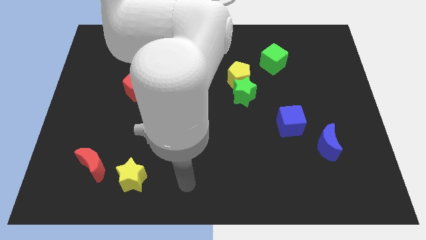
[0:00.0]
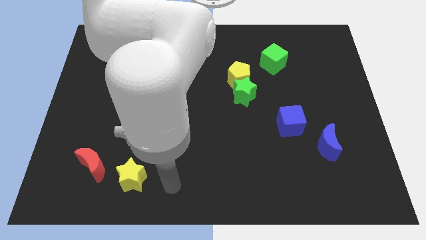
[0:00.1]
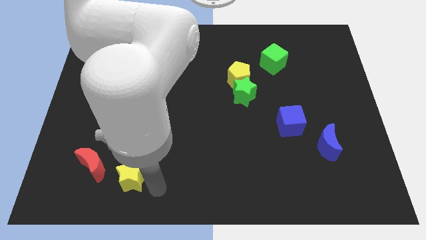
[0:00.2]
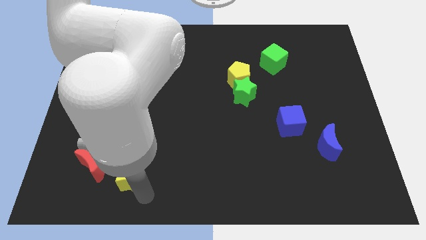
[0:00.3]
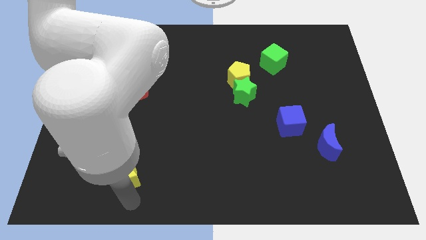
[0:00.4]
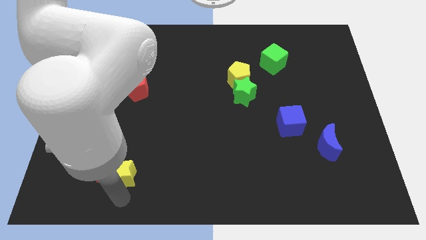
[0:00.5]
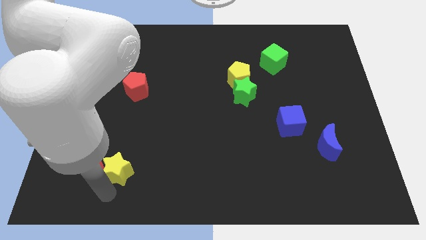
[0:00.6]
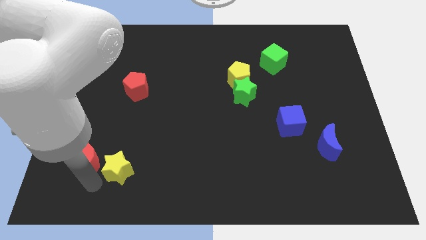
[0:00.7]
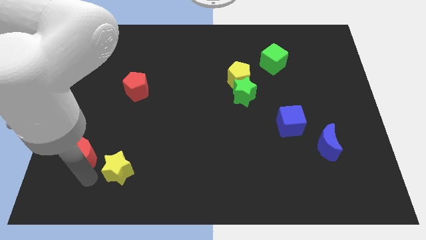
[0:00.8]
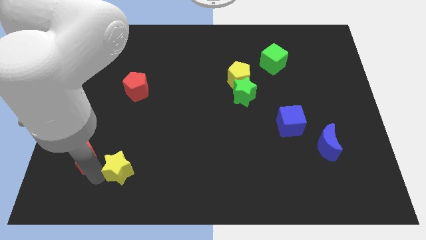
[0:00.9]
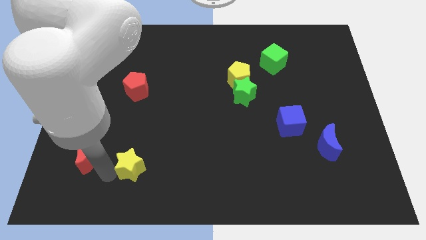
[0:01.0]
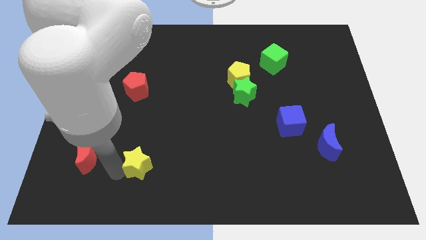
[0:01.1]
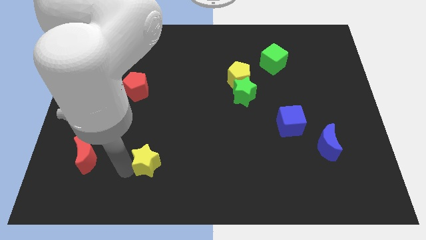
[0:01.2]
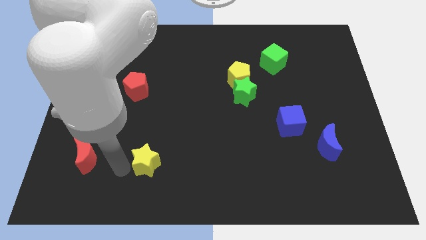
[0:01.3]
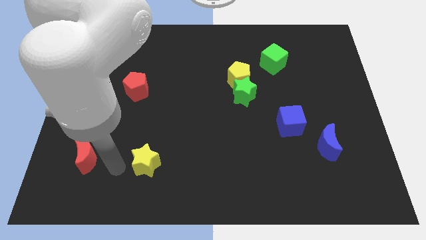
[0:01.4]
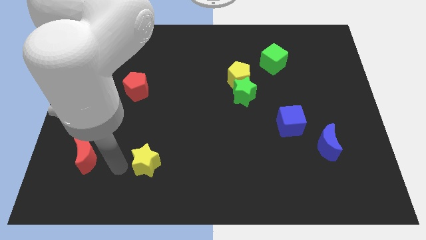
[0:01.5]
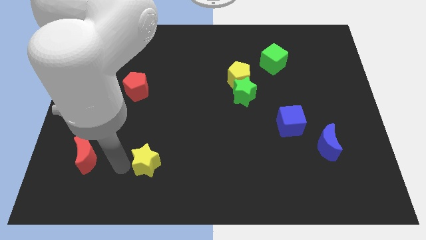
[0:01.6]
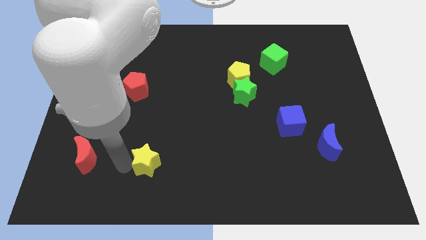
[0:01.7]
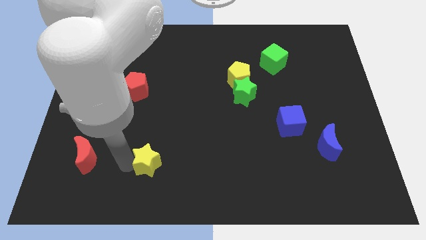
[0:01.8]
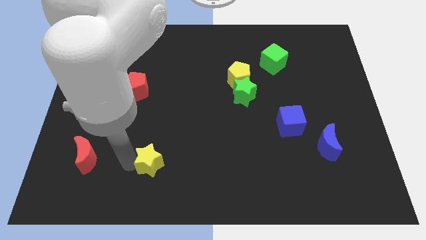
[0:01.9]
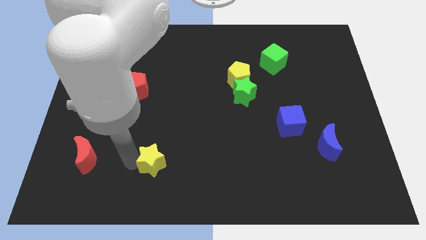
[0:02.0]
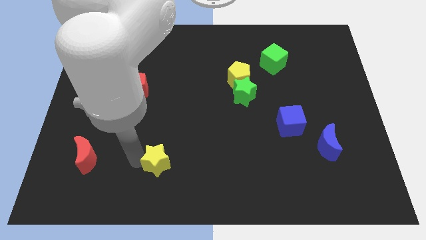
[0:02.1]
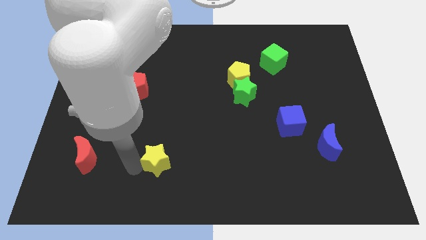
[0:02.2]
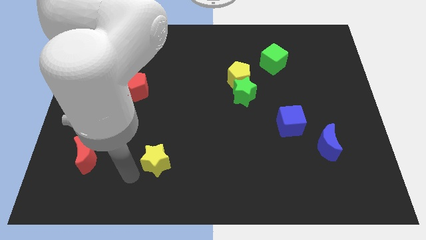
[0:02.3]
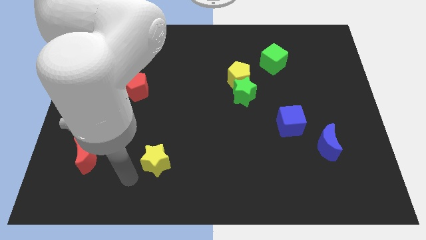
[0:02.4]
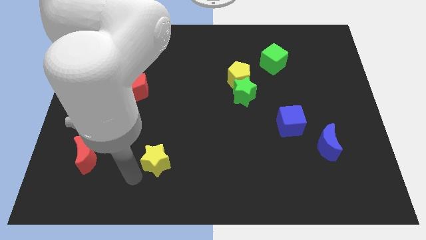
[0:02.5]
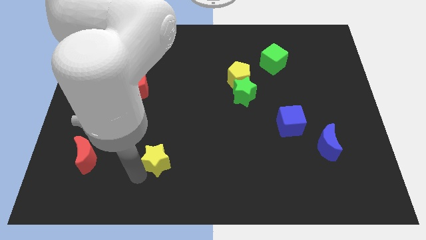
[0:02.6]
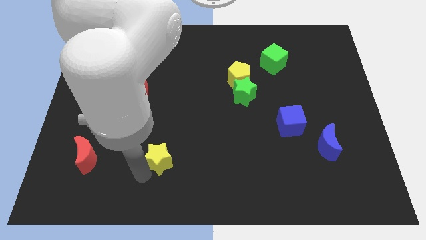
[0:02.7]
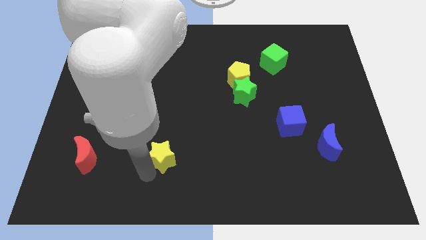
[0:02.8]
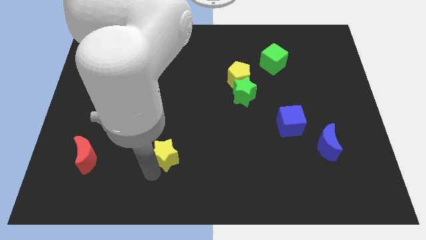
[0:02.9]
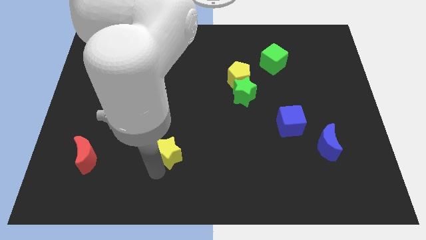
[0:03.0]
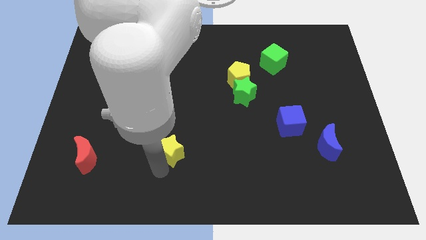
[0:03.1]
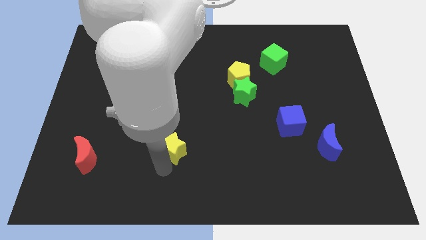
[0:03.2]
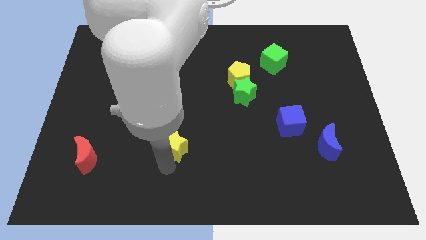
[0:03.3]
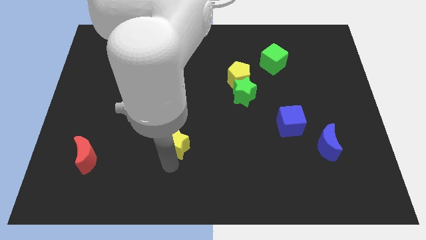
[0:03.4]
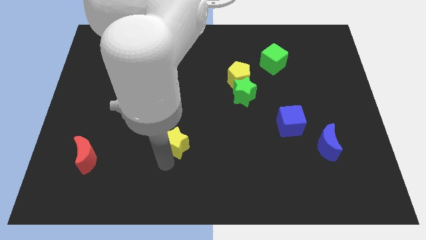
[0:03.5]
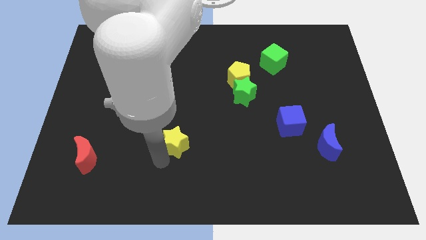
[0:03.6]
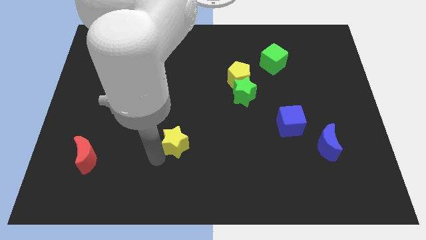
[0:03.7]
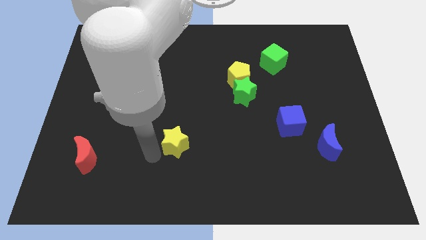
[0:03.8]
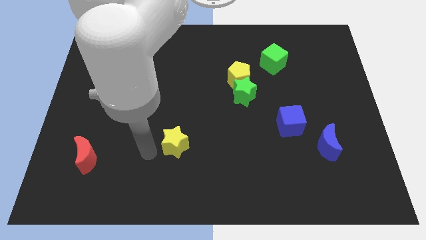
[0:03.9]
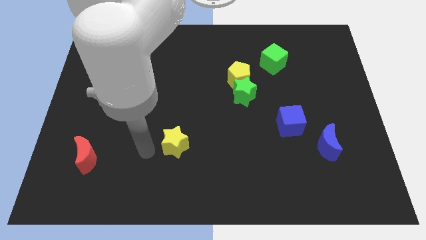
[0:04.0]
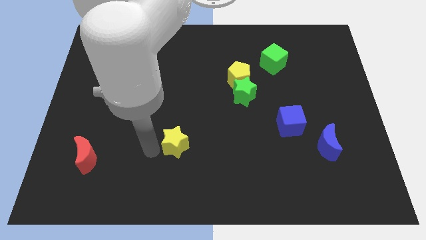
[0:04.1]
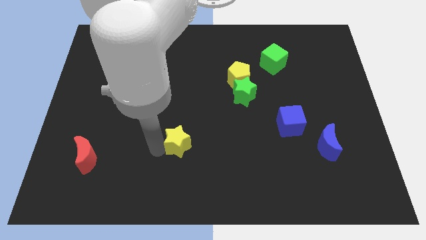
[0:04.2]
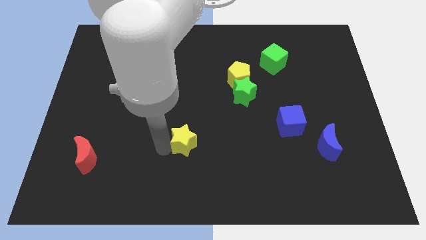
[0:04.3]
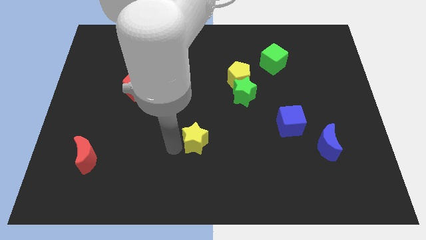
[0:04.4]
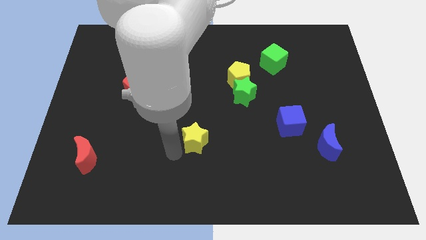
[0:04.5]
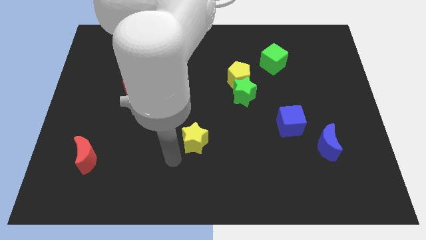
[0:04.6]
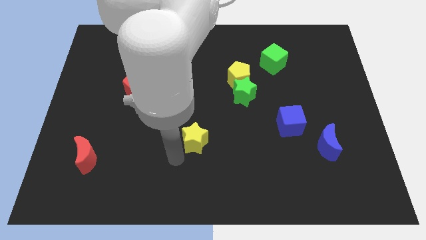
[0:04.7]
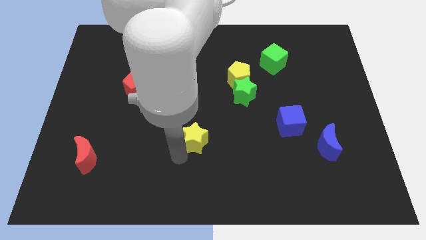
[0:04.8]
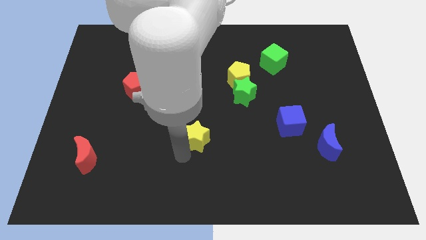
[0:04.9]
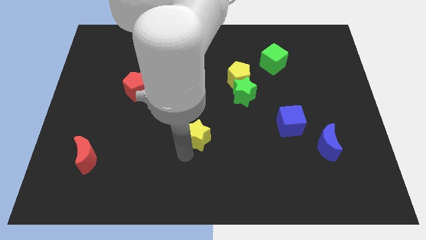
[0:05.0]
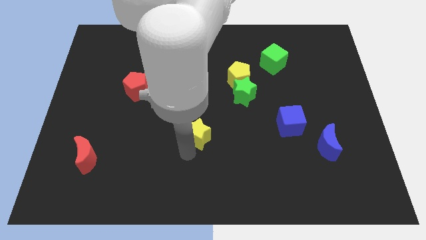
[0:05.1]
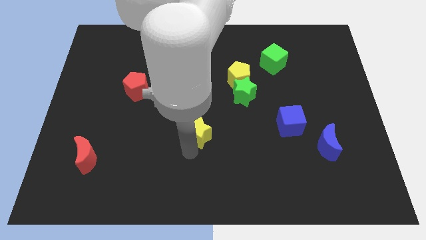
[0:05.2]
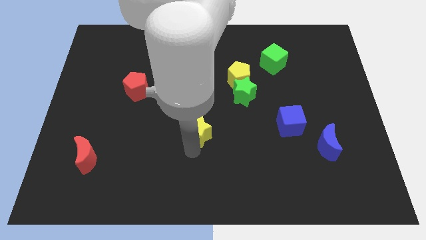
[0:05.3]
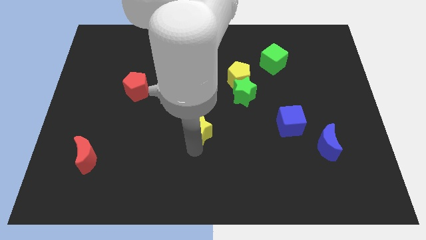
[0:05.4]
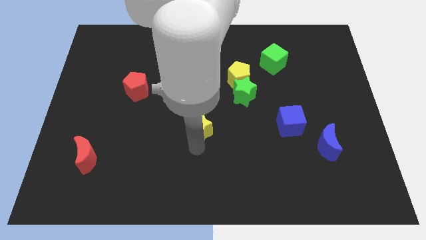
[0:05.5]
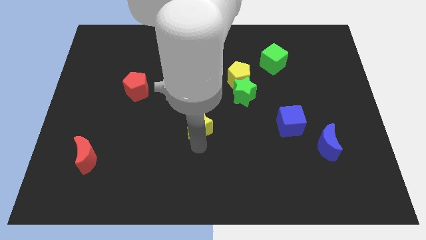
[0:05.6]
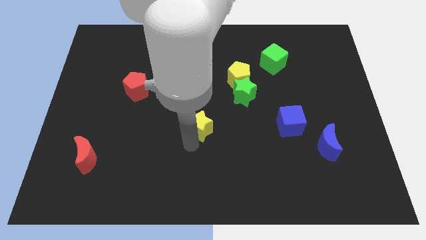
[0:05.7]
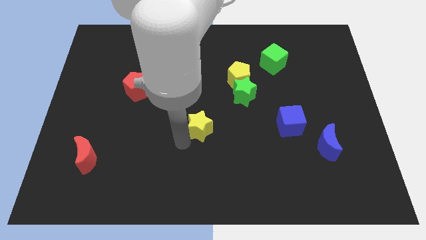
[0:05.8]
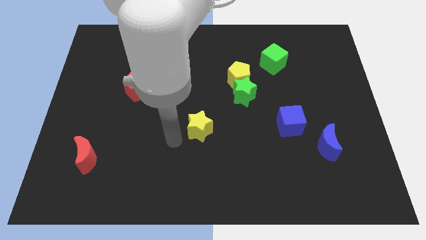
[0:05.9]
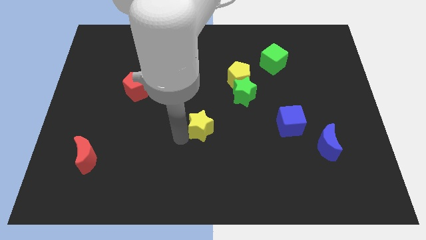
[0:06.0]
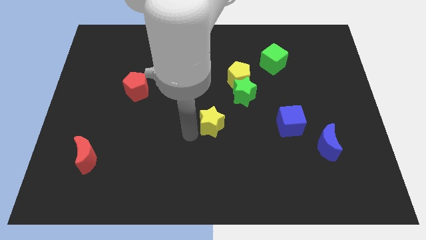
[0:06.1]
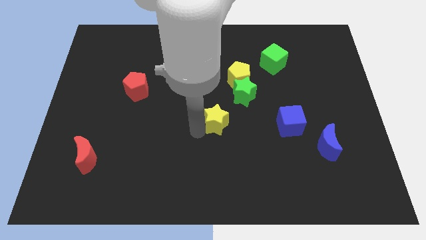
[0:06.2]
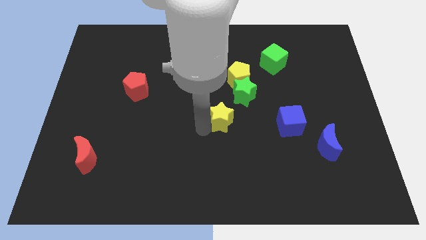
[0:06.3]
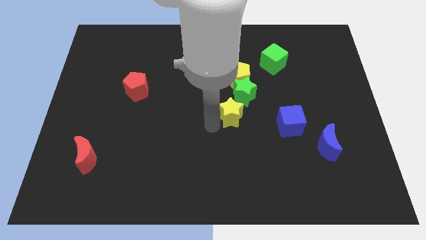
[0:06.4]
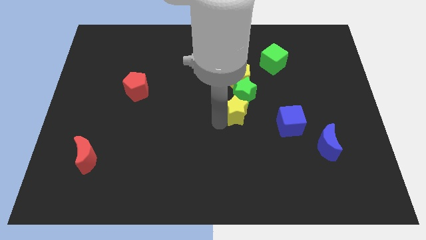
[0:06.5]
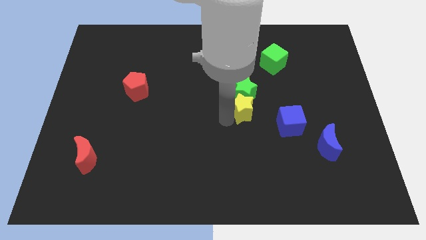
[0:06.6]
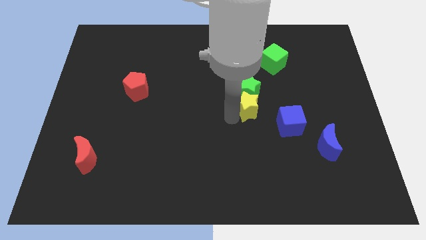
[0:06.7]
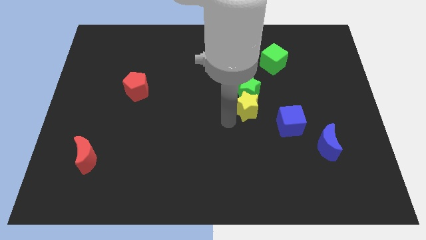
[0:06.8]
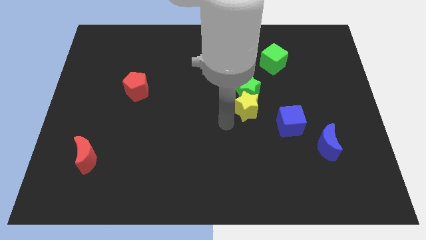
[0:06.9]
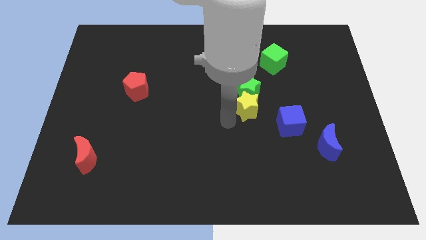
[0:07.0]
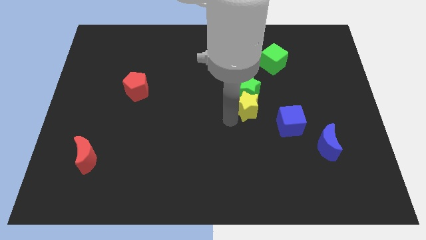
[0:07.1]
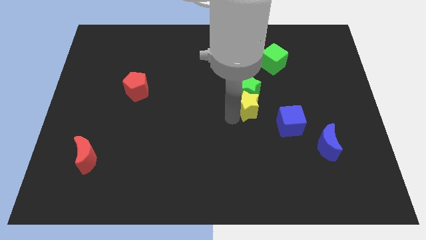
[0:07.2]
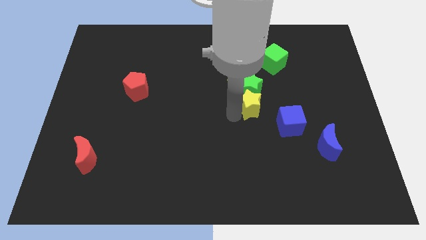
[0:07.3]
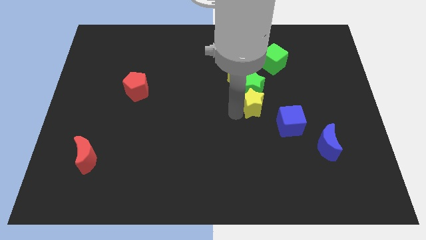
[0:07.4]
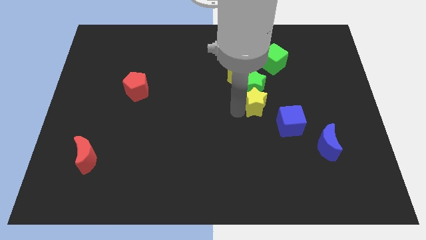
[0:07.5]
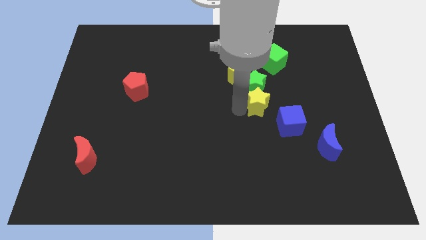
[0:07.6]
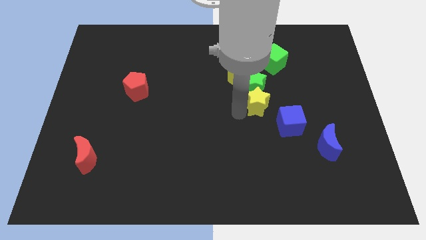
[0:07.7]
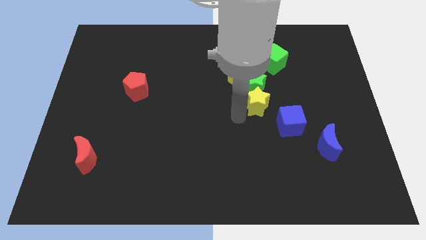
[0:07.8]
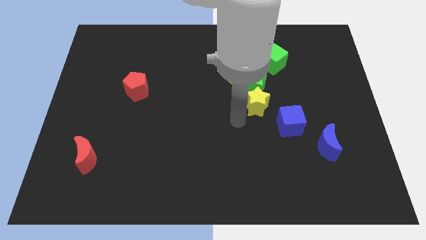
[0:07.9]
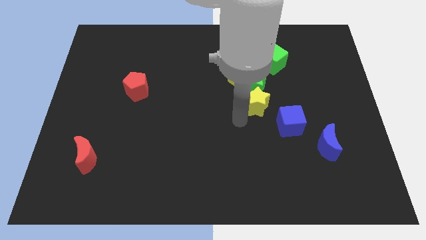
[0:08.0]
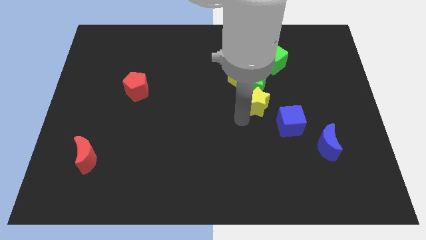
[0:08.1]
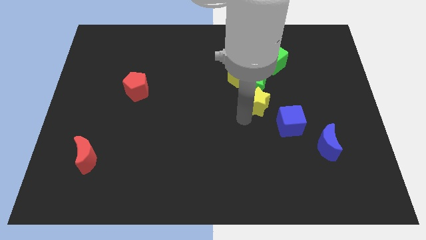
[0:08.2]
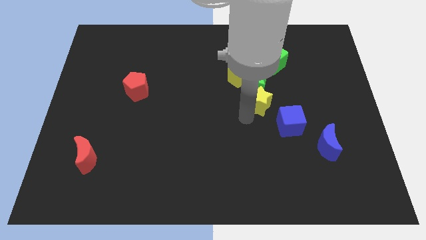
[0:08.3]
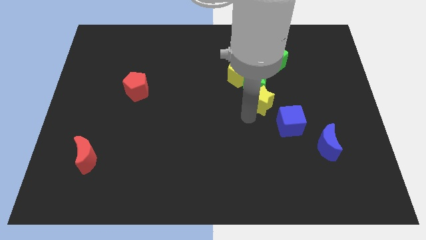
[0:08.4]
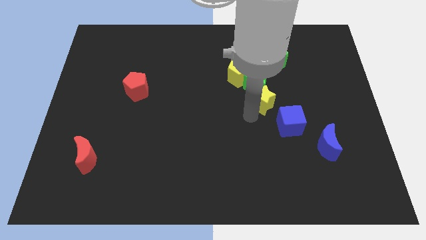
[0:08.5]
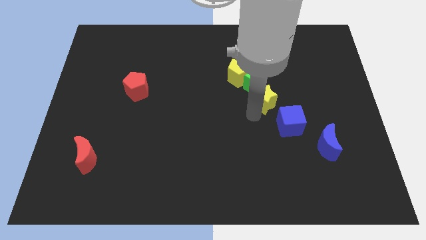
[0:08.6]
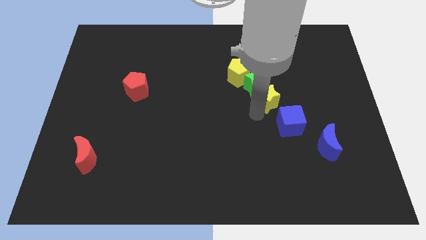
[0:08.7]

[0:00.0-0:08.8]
slide the yellow star above the blue cube
